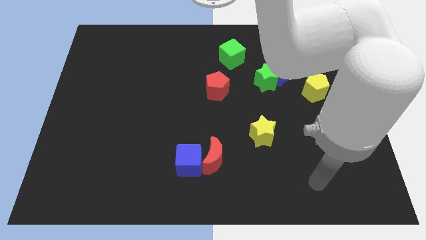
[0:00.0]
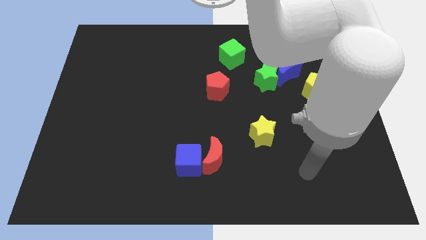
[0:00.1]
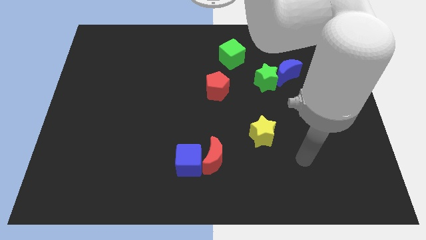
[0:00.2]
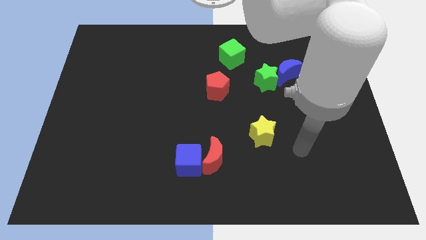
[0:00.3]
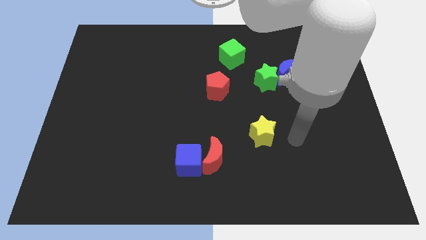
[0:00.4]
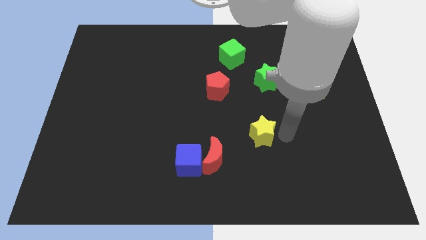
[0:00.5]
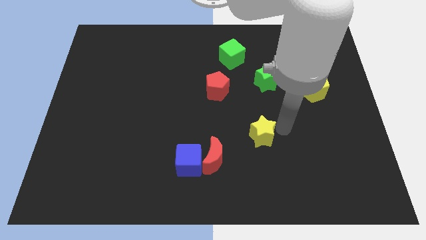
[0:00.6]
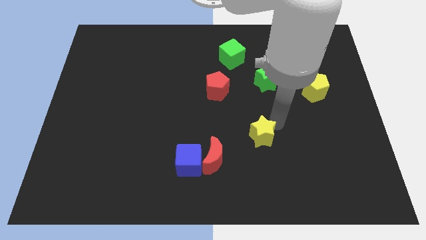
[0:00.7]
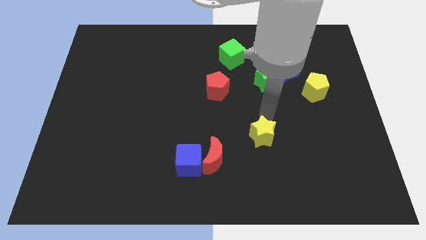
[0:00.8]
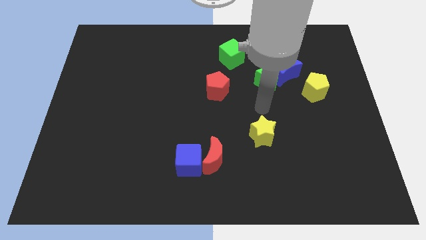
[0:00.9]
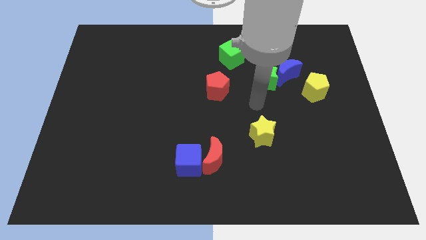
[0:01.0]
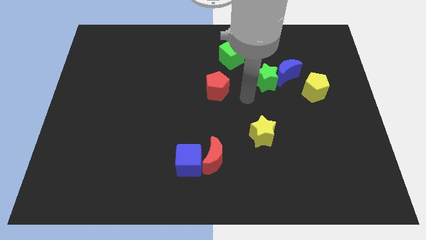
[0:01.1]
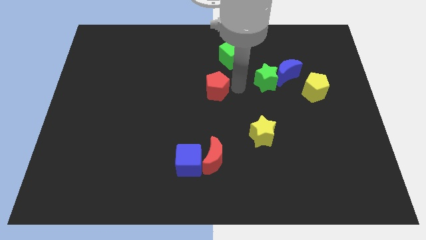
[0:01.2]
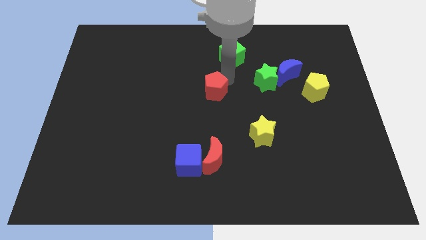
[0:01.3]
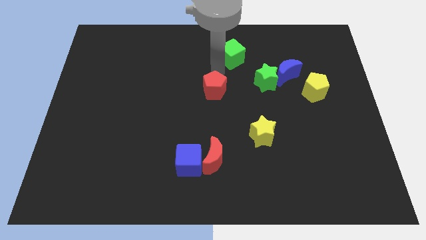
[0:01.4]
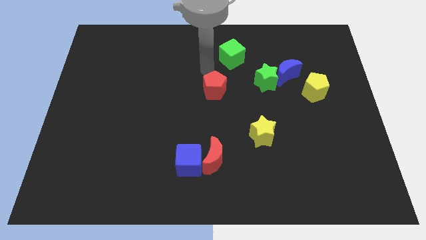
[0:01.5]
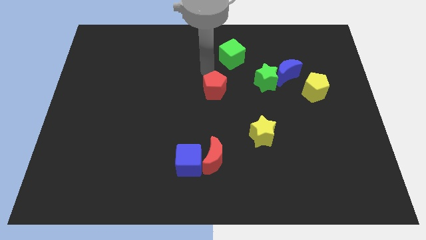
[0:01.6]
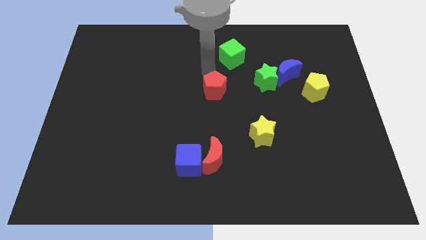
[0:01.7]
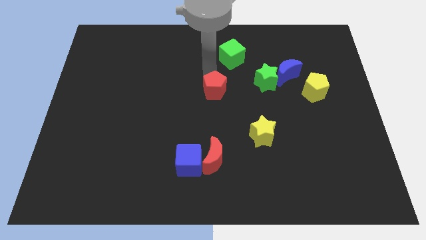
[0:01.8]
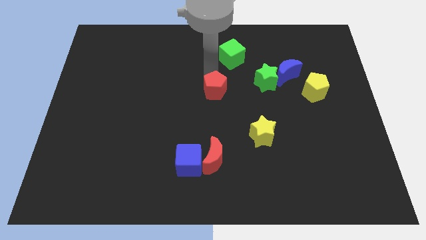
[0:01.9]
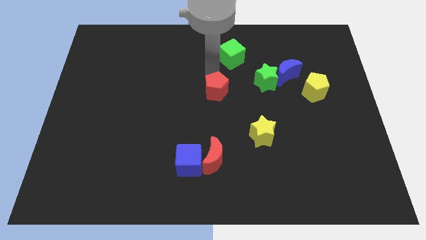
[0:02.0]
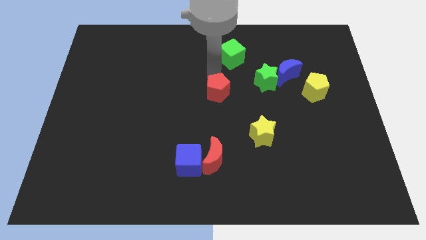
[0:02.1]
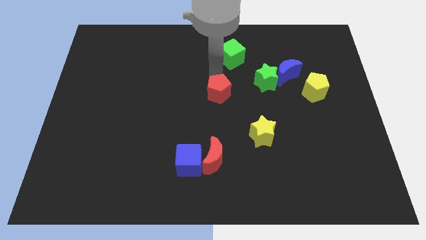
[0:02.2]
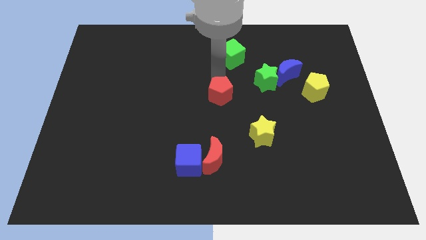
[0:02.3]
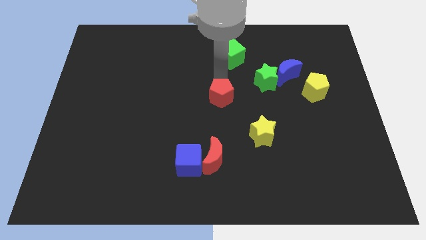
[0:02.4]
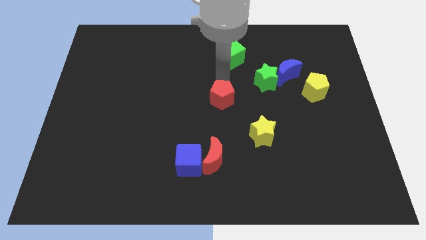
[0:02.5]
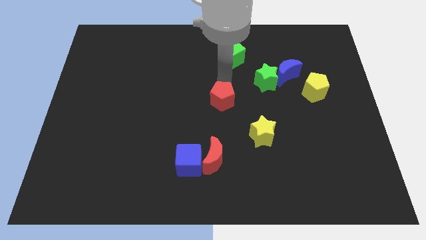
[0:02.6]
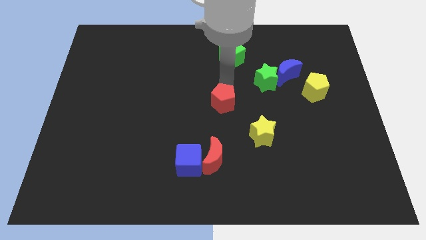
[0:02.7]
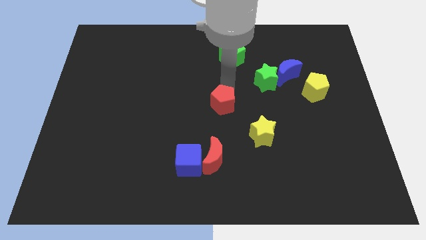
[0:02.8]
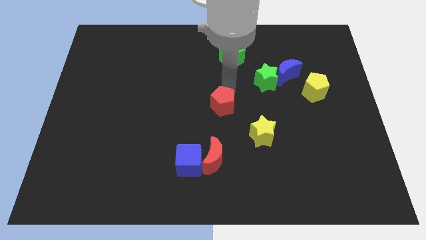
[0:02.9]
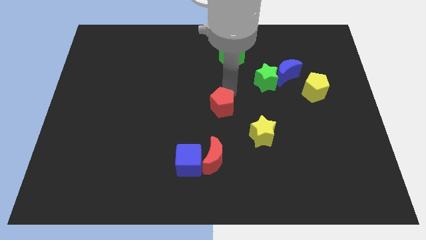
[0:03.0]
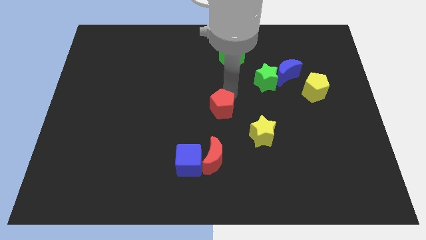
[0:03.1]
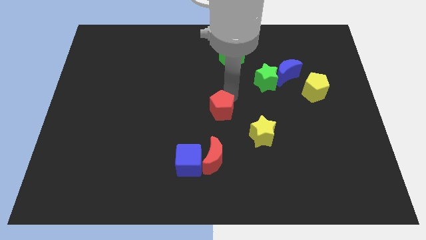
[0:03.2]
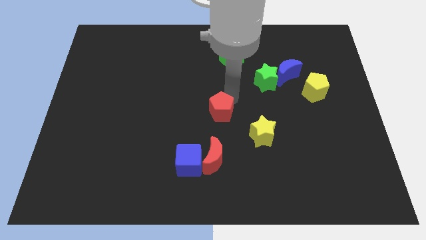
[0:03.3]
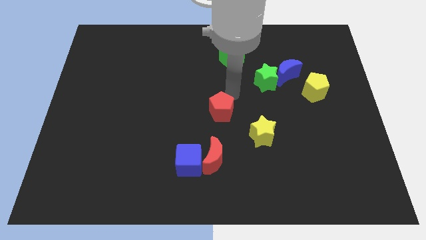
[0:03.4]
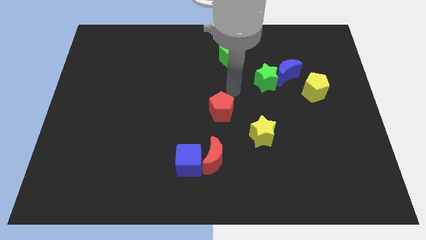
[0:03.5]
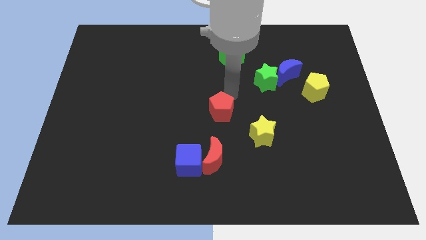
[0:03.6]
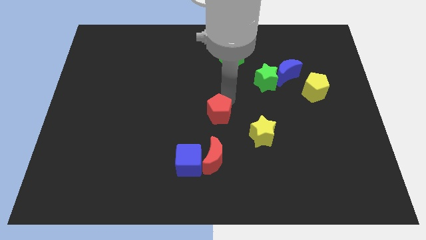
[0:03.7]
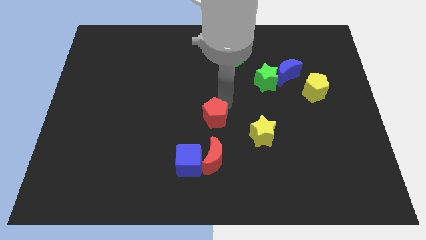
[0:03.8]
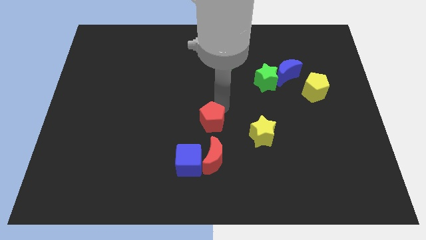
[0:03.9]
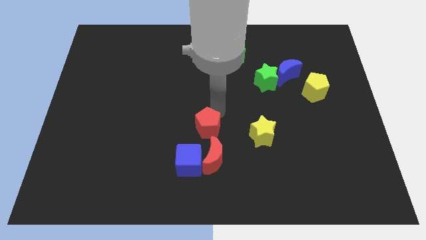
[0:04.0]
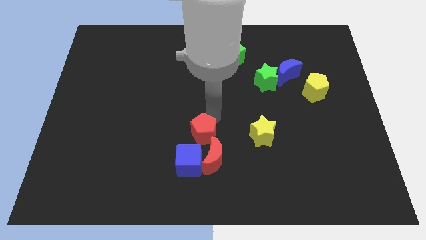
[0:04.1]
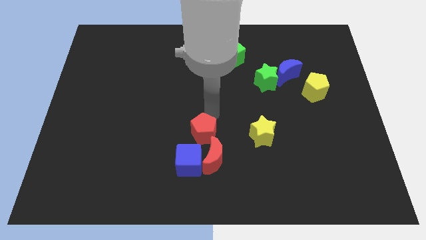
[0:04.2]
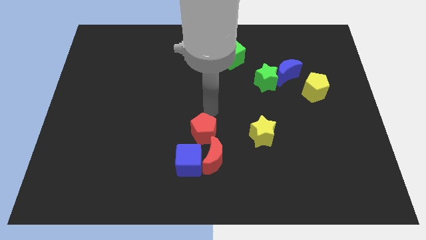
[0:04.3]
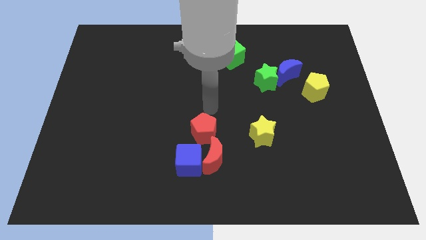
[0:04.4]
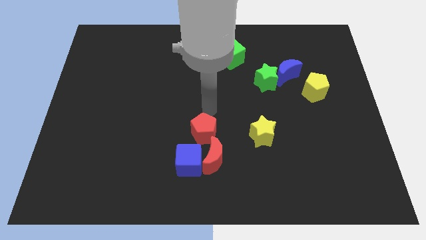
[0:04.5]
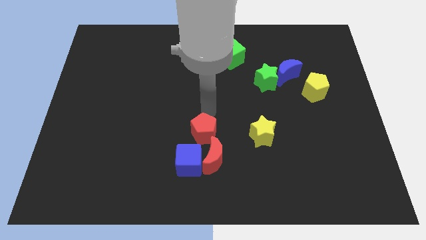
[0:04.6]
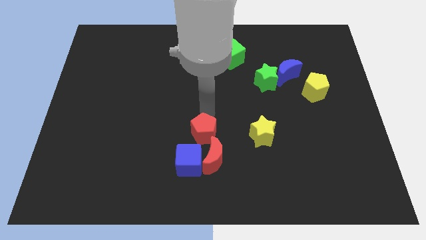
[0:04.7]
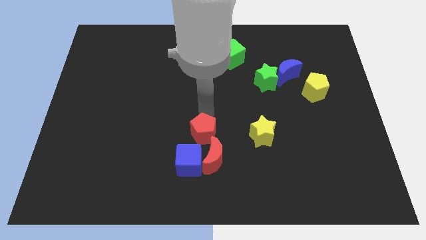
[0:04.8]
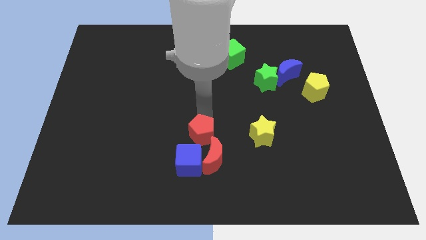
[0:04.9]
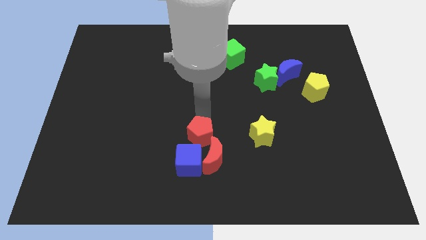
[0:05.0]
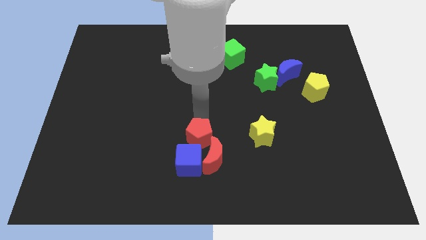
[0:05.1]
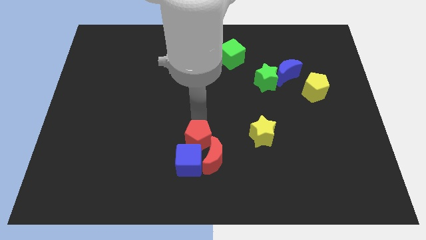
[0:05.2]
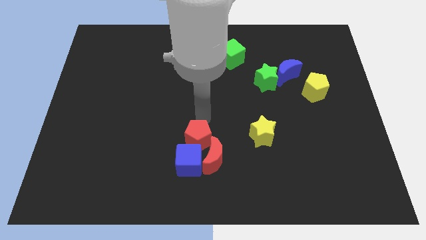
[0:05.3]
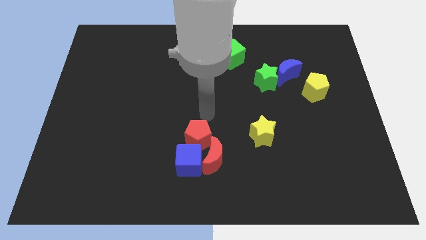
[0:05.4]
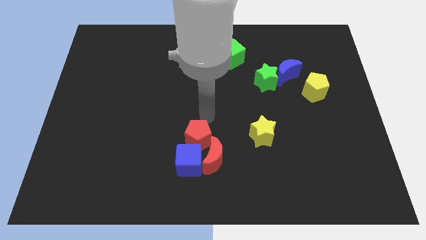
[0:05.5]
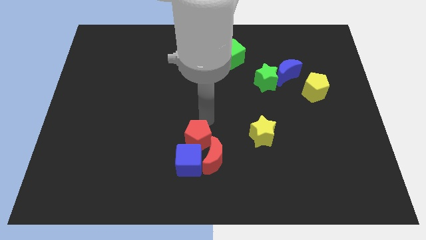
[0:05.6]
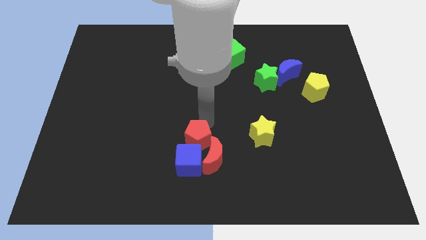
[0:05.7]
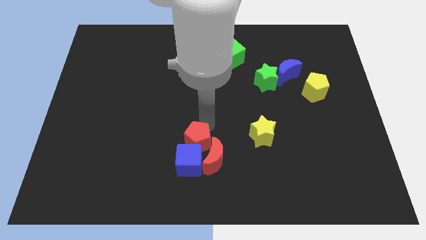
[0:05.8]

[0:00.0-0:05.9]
push the red pentagon next to the blue cube

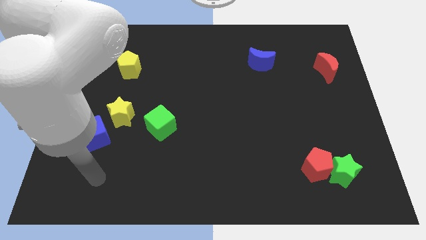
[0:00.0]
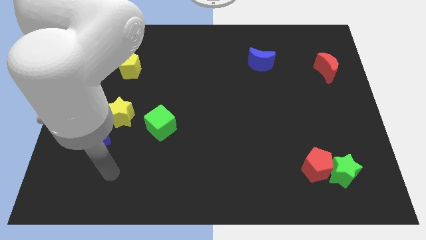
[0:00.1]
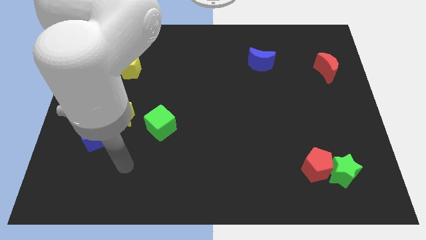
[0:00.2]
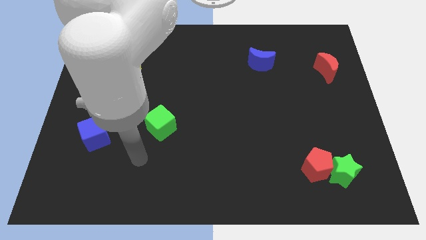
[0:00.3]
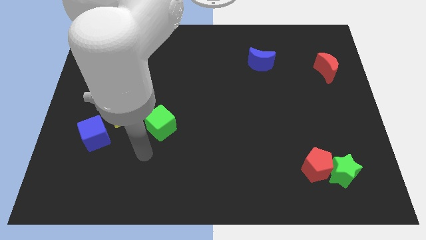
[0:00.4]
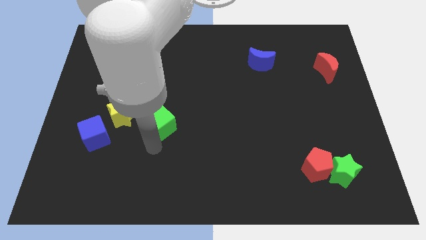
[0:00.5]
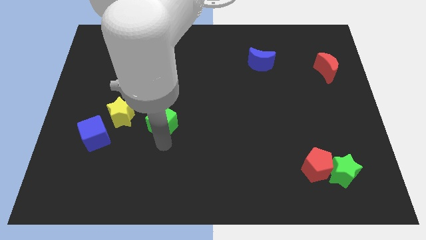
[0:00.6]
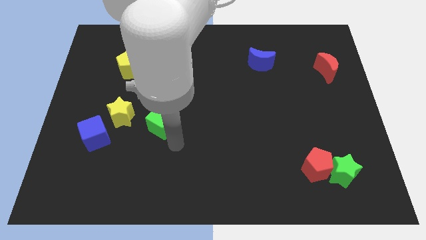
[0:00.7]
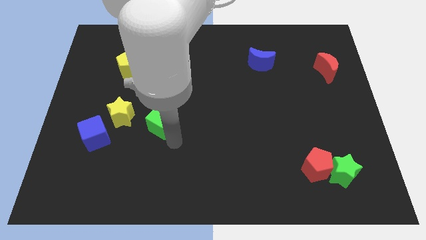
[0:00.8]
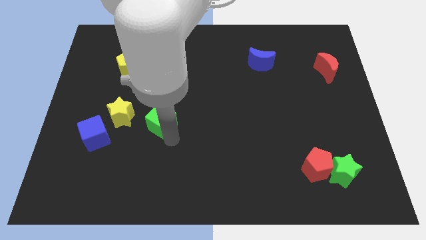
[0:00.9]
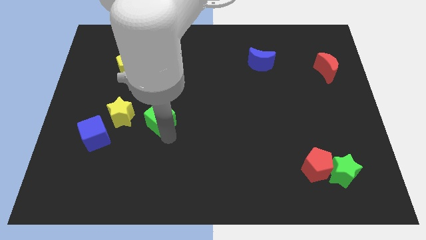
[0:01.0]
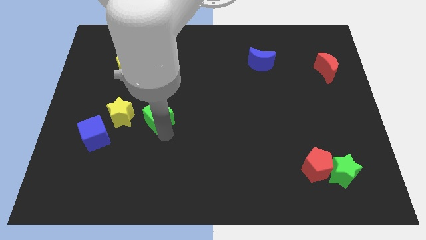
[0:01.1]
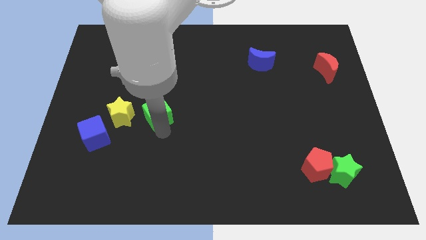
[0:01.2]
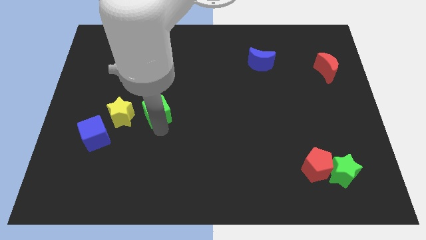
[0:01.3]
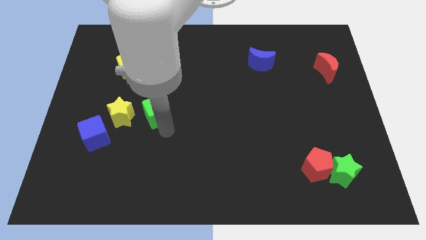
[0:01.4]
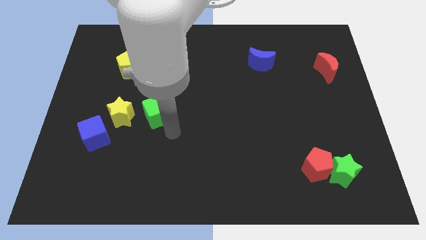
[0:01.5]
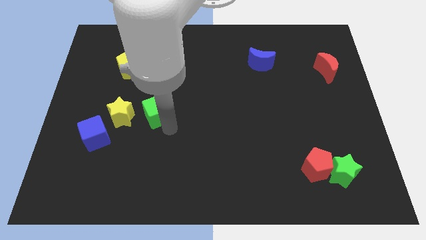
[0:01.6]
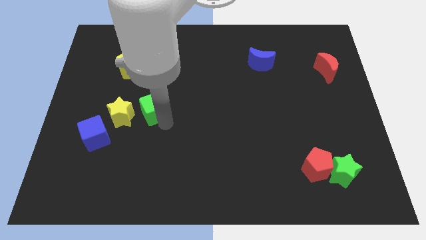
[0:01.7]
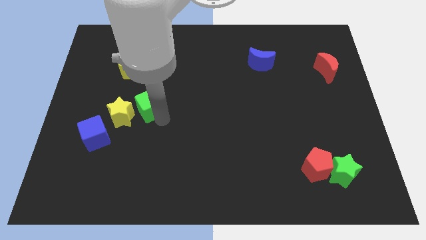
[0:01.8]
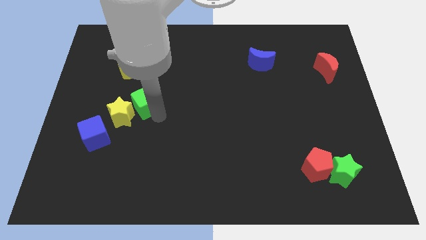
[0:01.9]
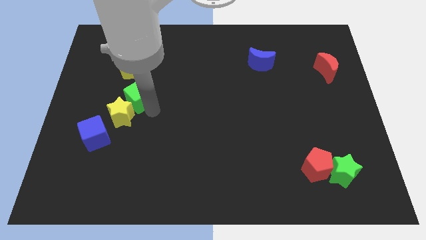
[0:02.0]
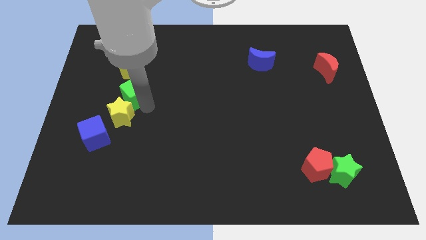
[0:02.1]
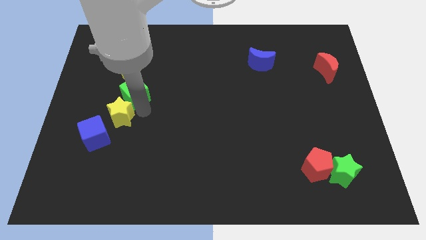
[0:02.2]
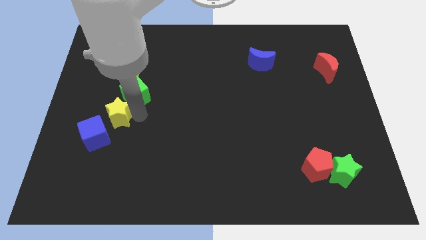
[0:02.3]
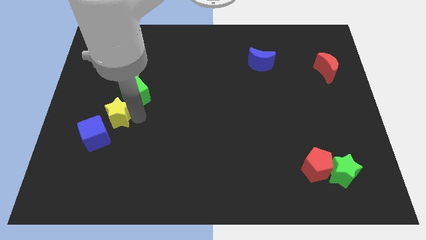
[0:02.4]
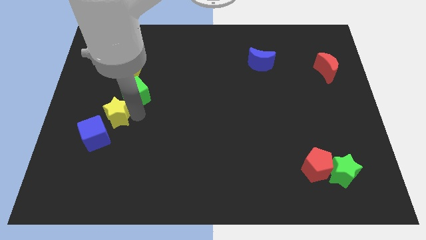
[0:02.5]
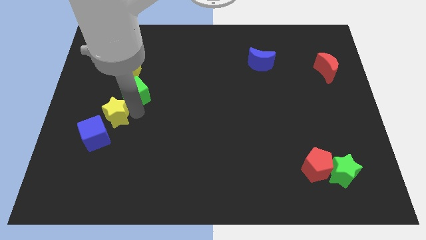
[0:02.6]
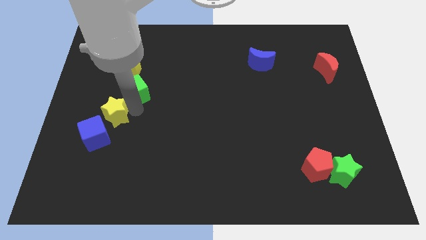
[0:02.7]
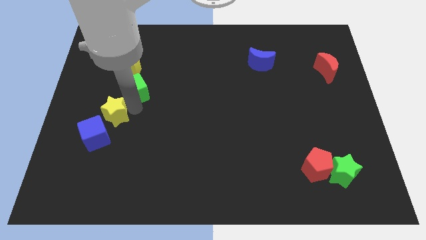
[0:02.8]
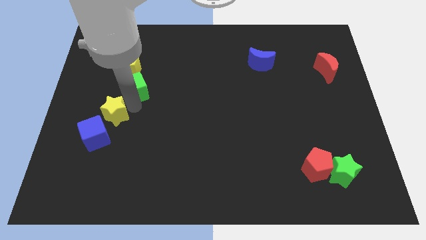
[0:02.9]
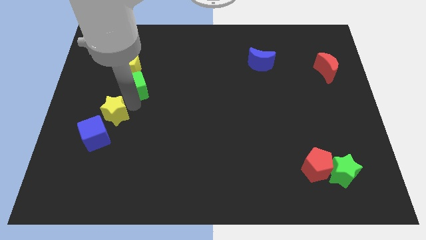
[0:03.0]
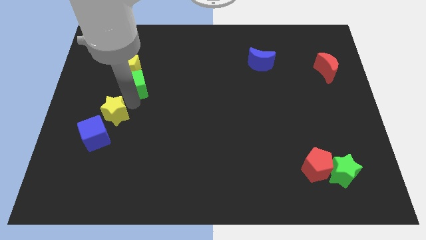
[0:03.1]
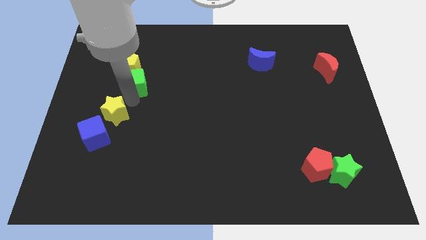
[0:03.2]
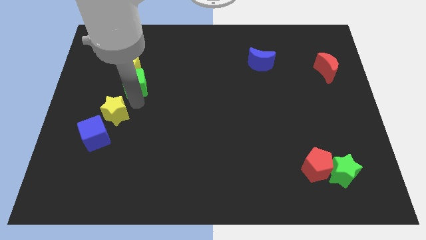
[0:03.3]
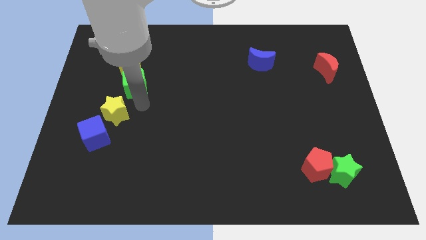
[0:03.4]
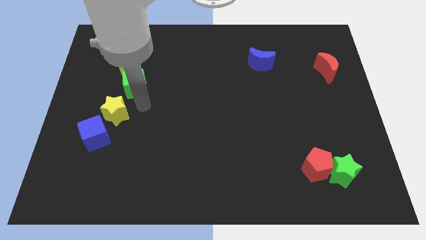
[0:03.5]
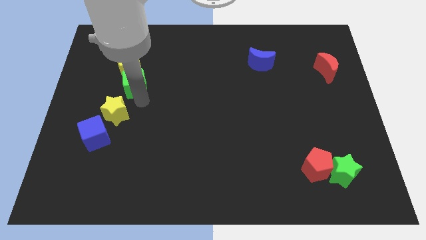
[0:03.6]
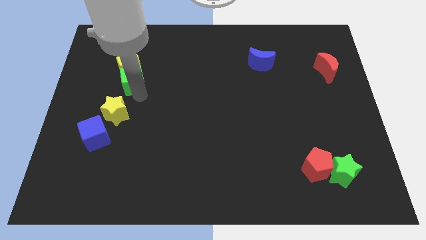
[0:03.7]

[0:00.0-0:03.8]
push the green cube to the yellow pentagon
